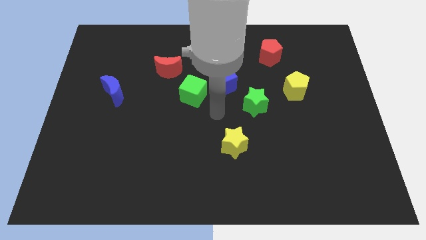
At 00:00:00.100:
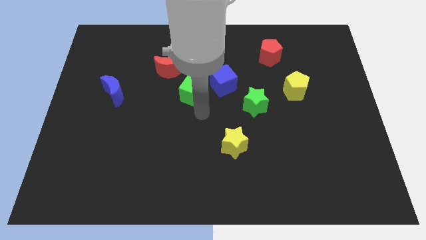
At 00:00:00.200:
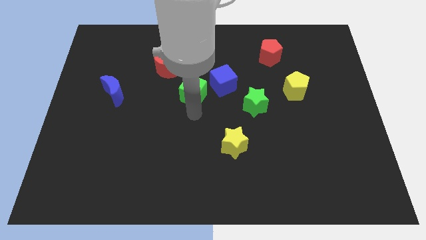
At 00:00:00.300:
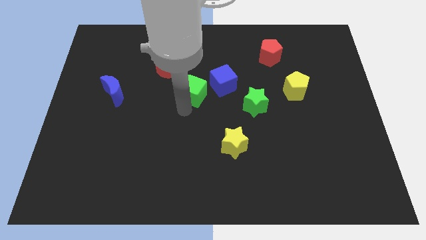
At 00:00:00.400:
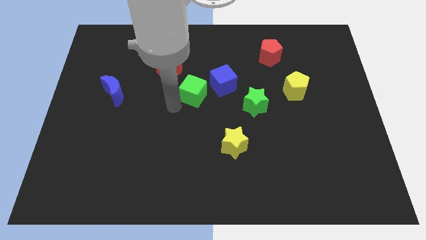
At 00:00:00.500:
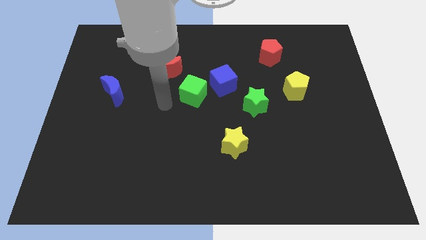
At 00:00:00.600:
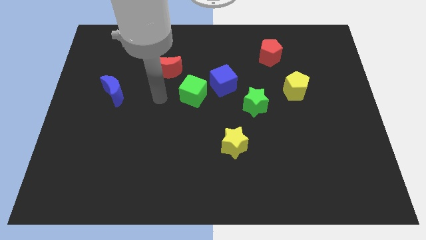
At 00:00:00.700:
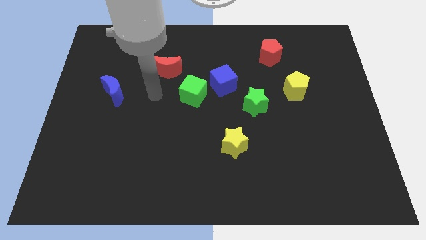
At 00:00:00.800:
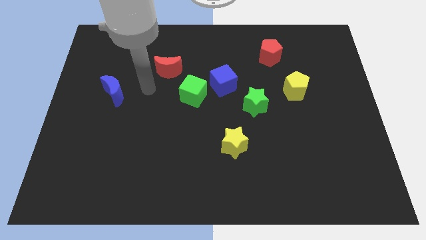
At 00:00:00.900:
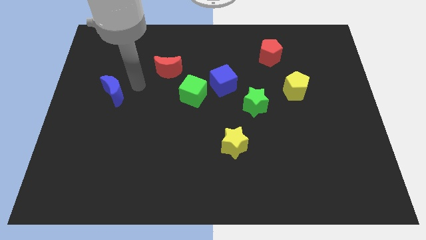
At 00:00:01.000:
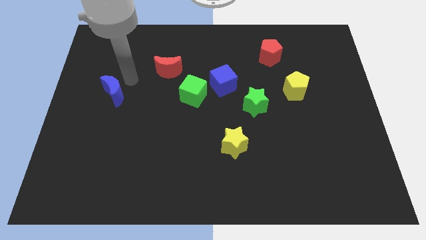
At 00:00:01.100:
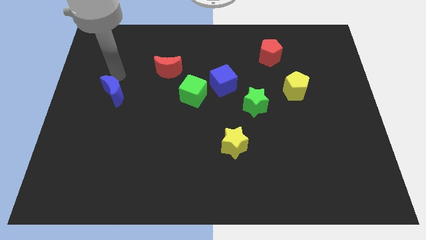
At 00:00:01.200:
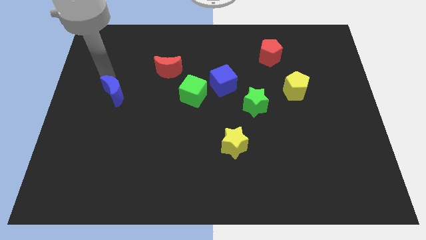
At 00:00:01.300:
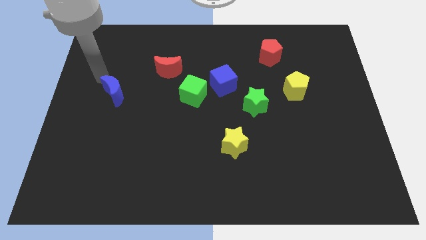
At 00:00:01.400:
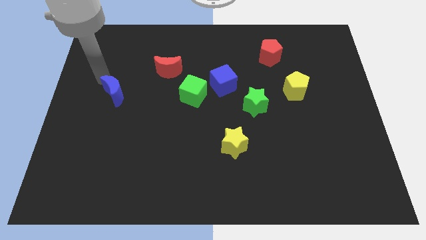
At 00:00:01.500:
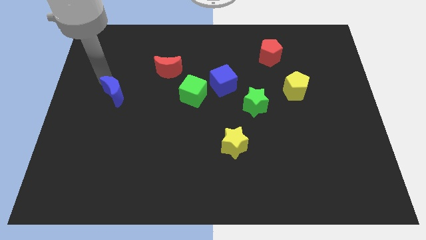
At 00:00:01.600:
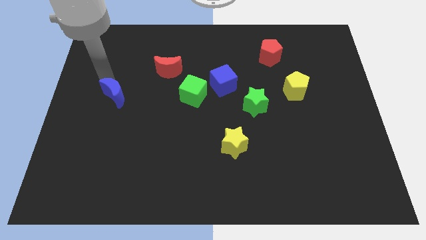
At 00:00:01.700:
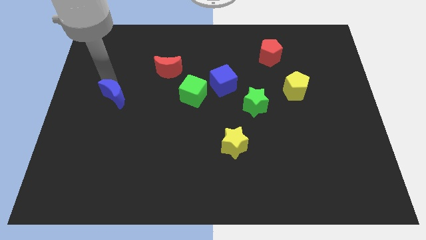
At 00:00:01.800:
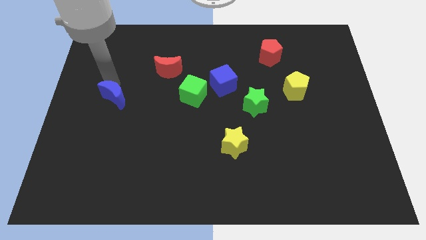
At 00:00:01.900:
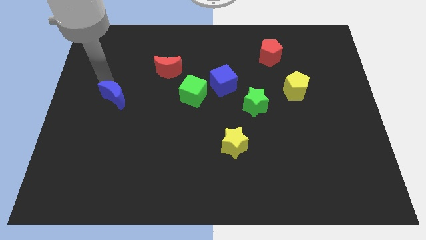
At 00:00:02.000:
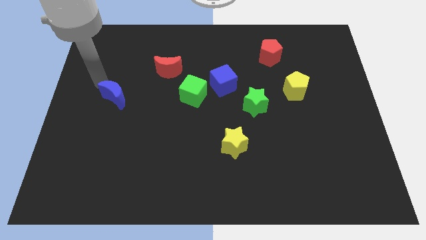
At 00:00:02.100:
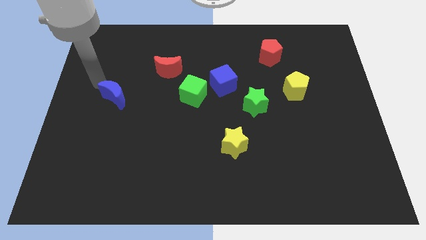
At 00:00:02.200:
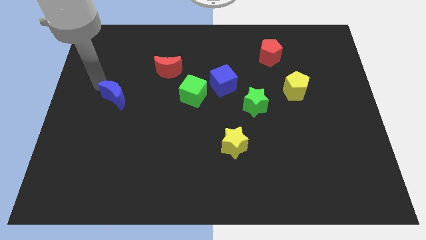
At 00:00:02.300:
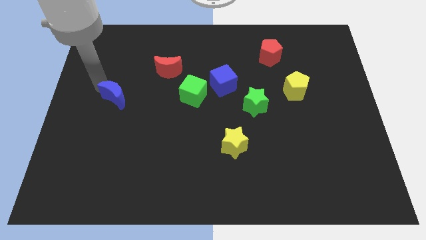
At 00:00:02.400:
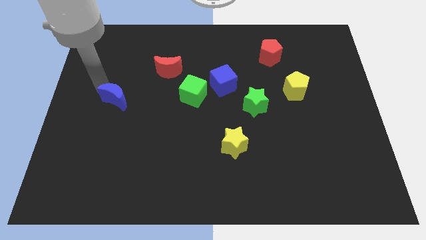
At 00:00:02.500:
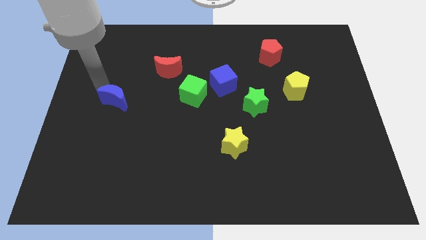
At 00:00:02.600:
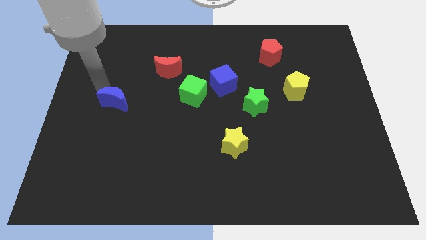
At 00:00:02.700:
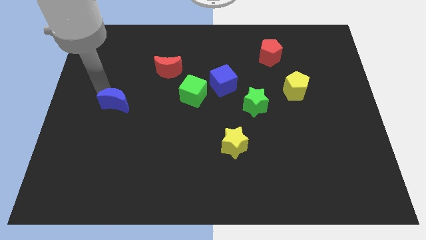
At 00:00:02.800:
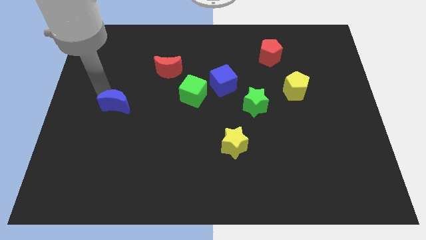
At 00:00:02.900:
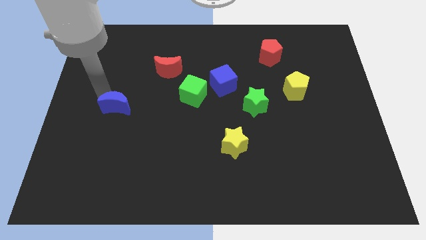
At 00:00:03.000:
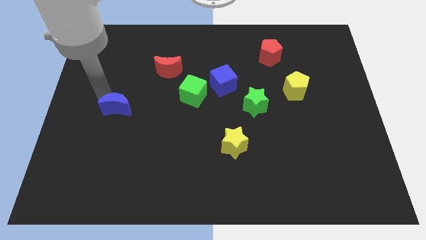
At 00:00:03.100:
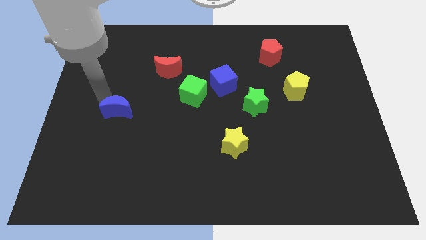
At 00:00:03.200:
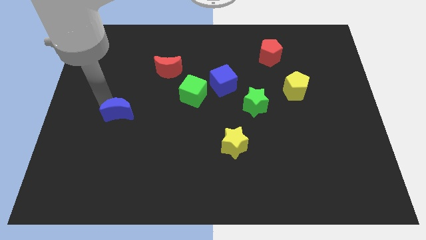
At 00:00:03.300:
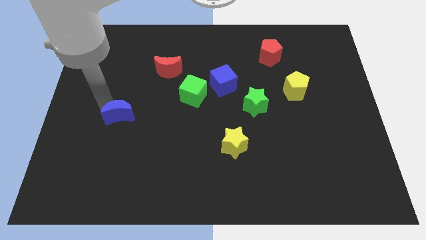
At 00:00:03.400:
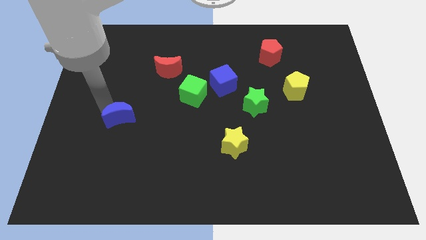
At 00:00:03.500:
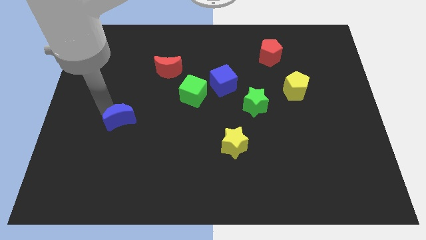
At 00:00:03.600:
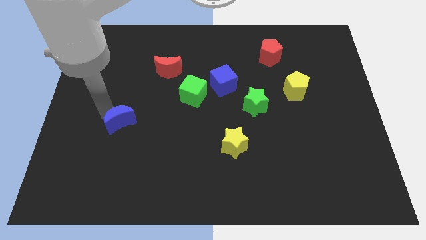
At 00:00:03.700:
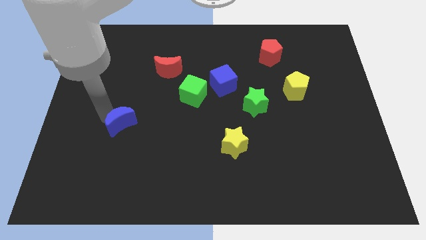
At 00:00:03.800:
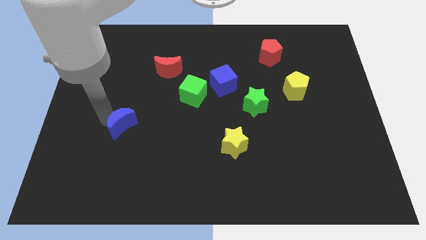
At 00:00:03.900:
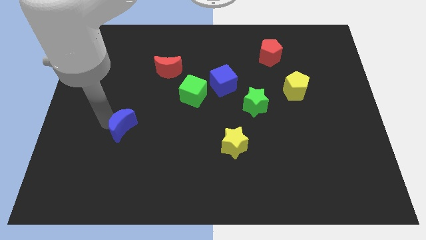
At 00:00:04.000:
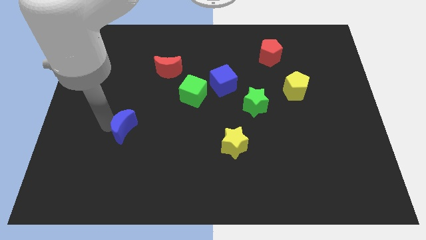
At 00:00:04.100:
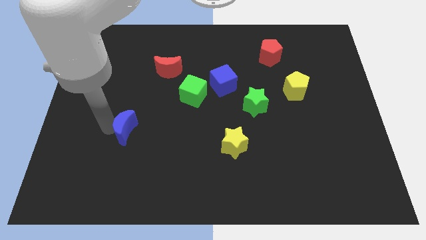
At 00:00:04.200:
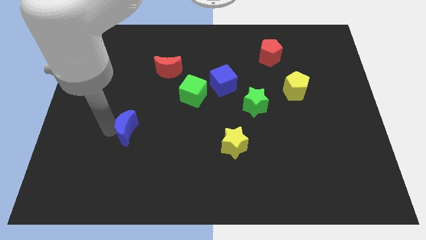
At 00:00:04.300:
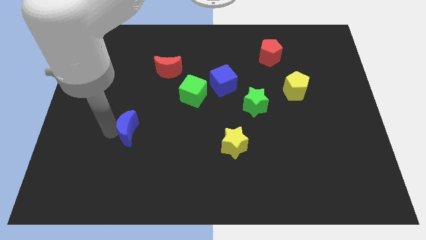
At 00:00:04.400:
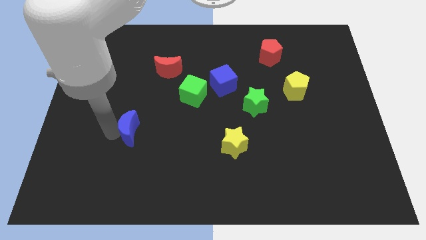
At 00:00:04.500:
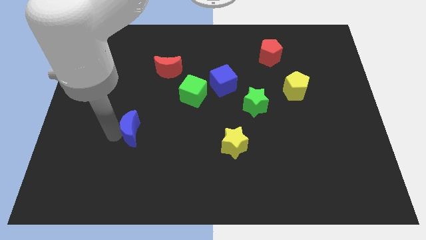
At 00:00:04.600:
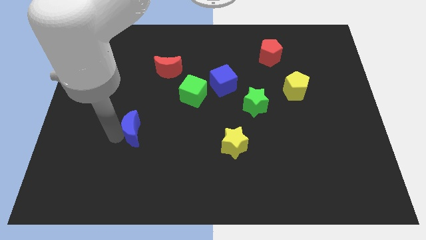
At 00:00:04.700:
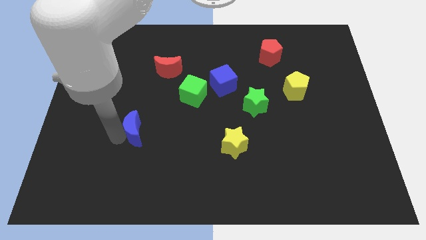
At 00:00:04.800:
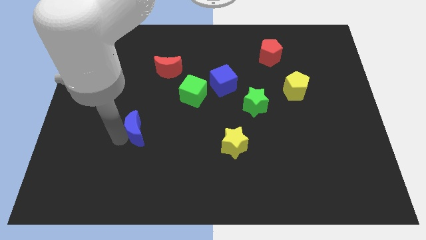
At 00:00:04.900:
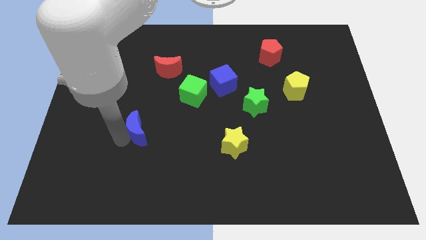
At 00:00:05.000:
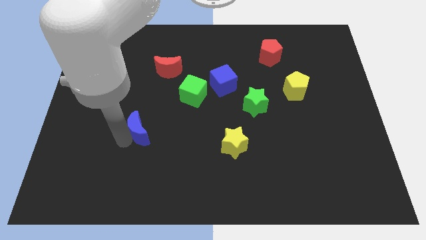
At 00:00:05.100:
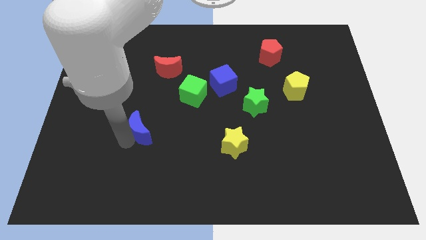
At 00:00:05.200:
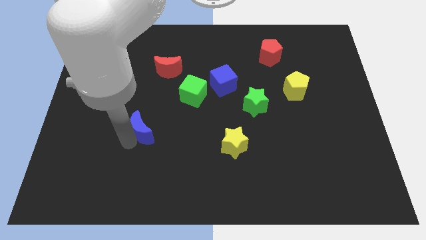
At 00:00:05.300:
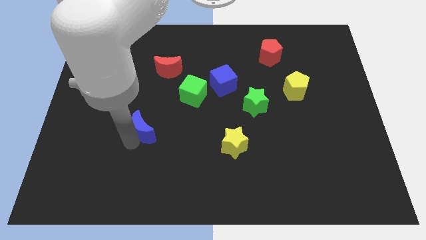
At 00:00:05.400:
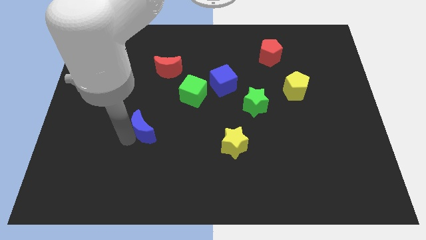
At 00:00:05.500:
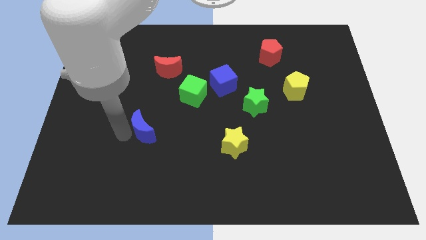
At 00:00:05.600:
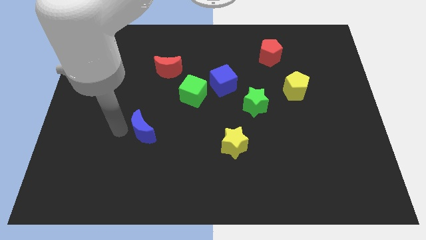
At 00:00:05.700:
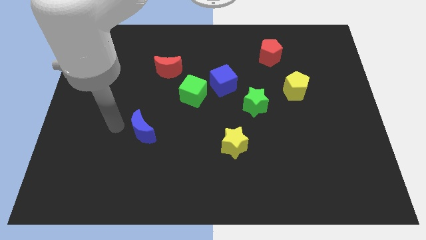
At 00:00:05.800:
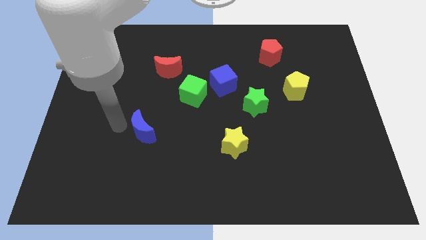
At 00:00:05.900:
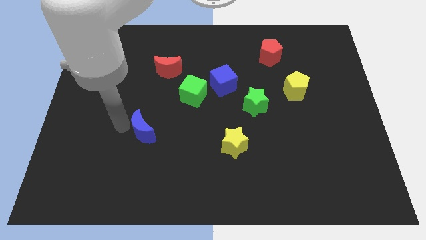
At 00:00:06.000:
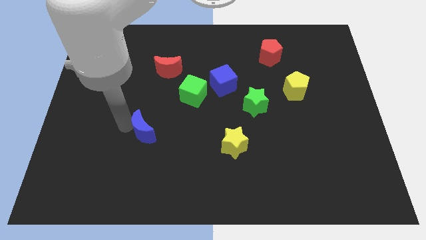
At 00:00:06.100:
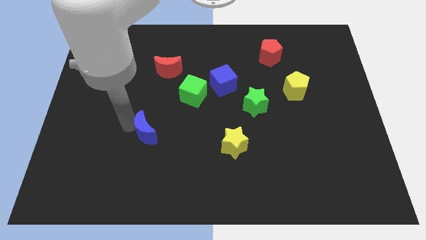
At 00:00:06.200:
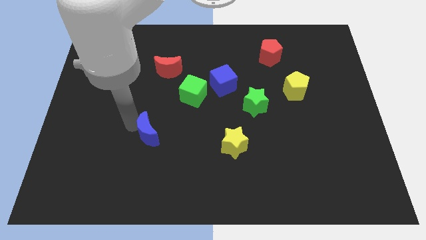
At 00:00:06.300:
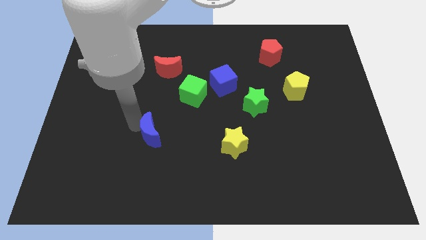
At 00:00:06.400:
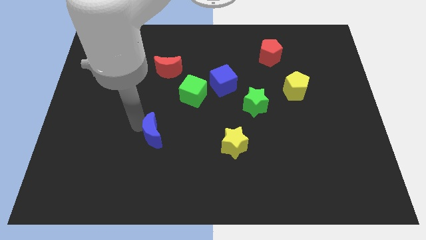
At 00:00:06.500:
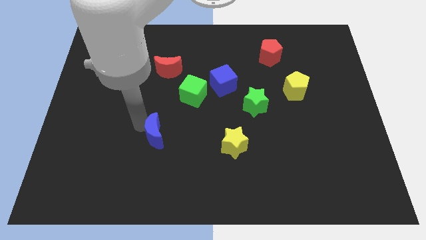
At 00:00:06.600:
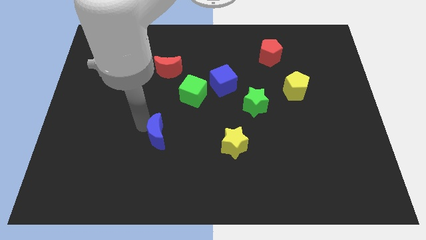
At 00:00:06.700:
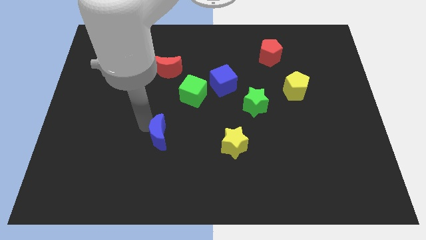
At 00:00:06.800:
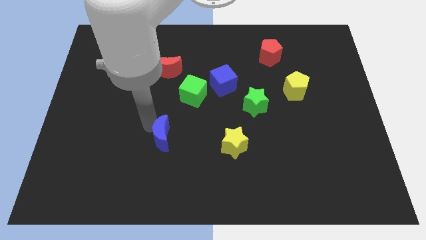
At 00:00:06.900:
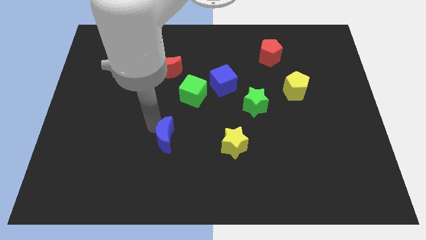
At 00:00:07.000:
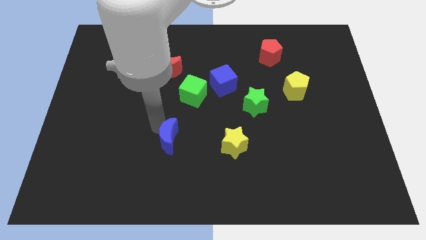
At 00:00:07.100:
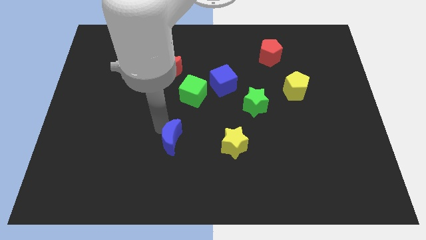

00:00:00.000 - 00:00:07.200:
push the blue moon down and then to the right

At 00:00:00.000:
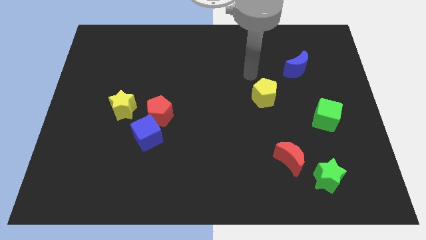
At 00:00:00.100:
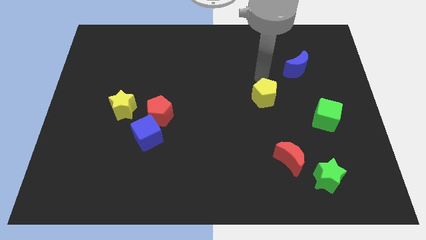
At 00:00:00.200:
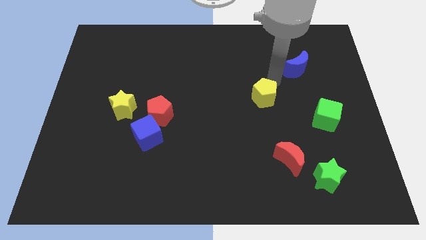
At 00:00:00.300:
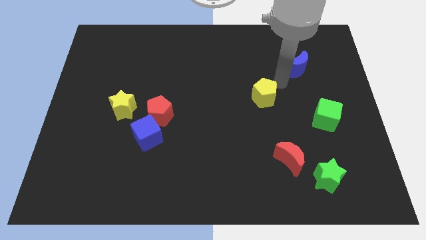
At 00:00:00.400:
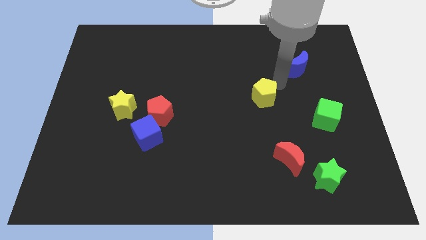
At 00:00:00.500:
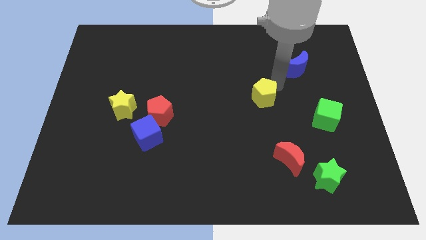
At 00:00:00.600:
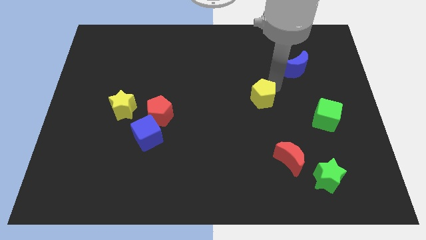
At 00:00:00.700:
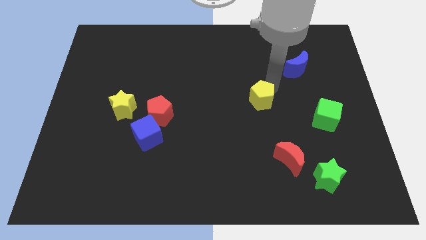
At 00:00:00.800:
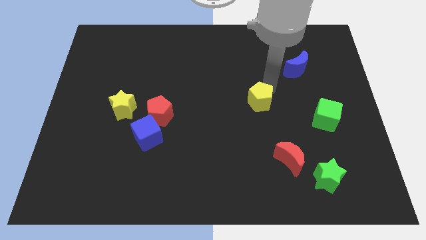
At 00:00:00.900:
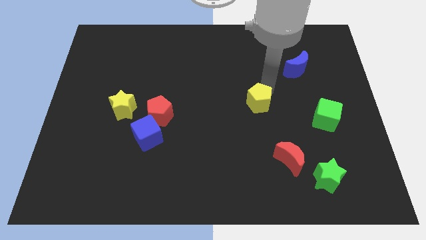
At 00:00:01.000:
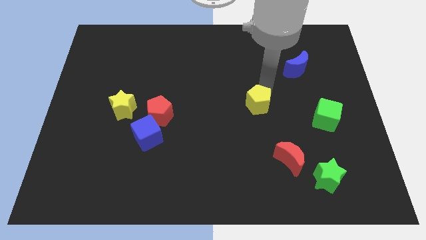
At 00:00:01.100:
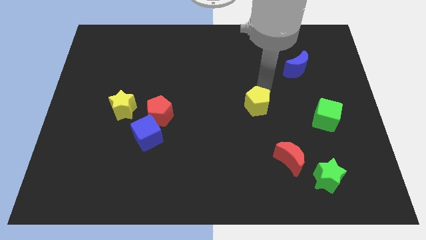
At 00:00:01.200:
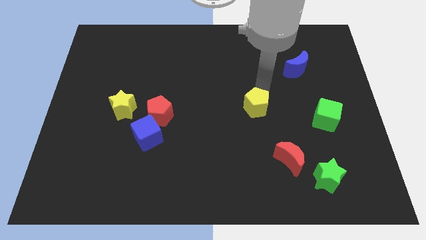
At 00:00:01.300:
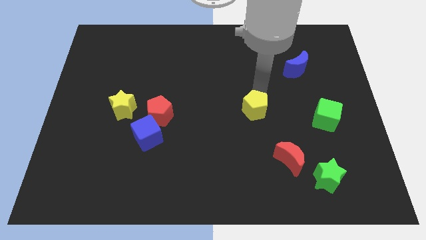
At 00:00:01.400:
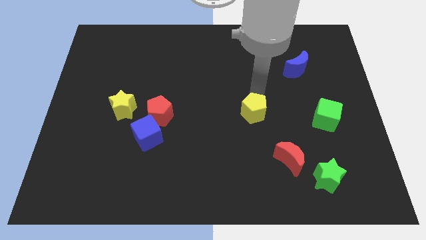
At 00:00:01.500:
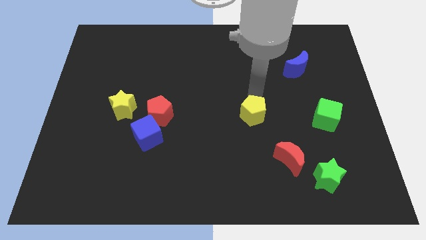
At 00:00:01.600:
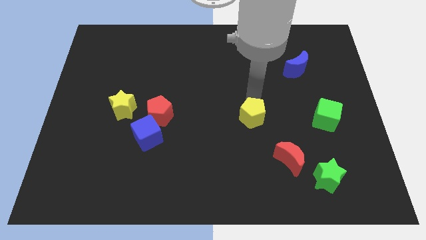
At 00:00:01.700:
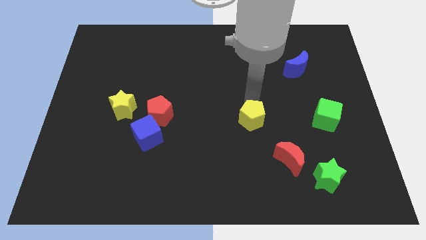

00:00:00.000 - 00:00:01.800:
move the yellow pentagon slightly down and left
